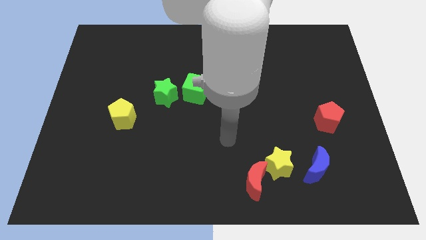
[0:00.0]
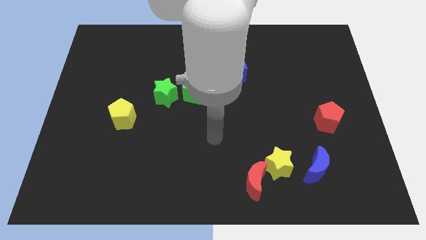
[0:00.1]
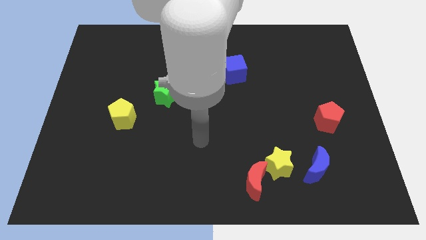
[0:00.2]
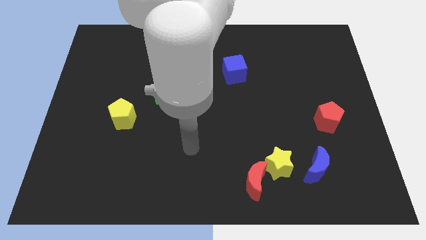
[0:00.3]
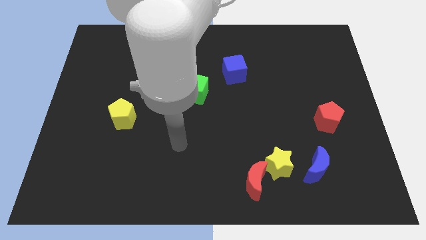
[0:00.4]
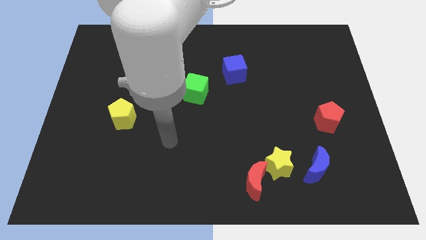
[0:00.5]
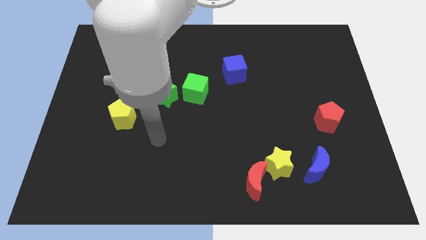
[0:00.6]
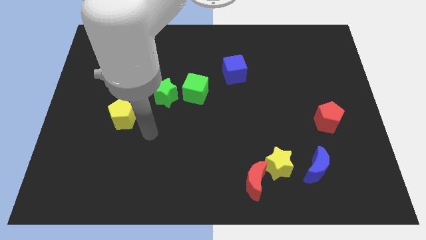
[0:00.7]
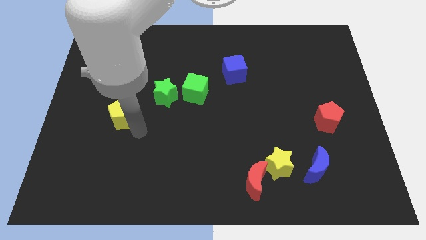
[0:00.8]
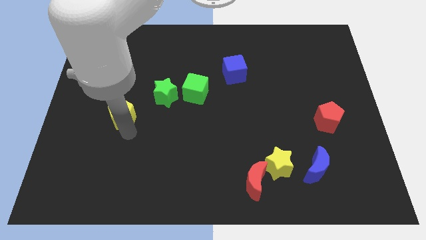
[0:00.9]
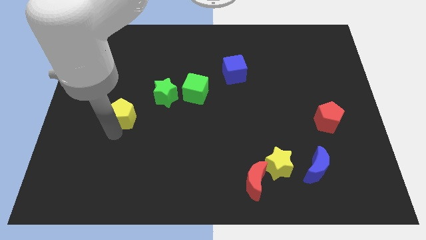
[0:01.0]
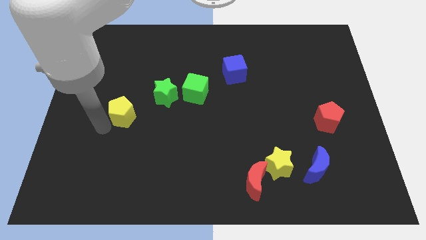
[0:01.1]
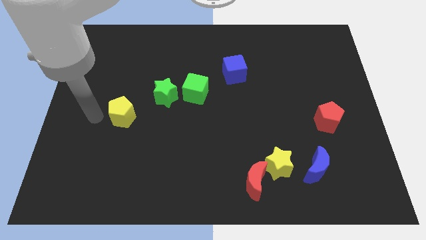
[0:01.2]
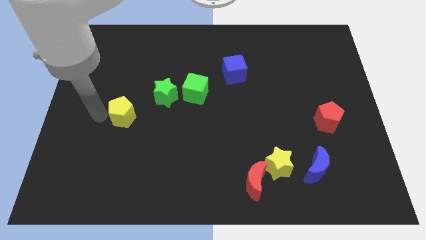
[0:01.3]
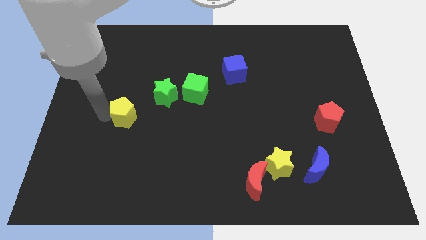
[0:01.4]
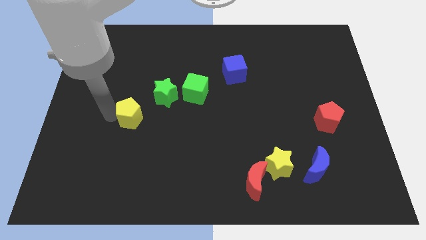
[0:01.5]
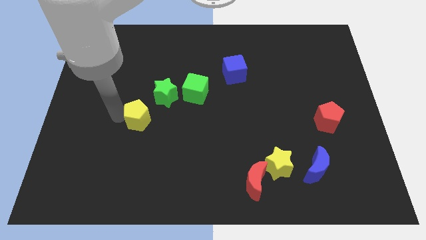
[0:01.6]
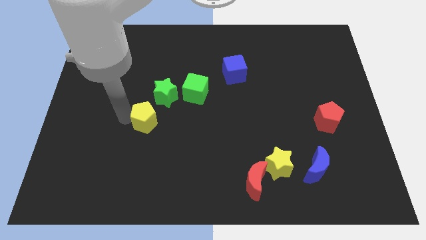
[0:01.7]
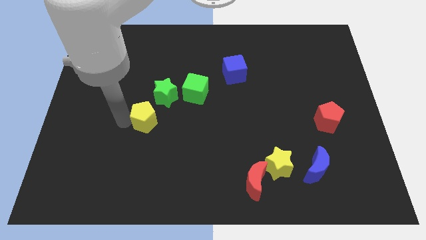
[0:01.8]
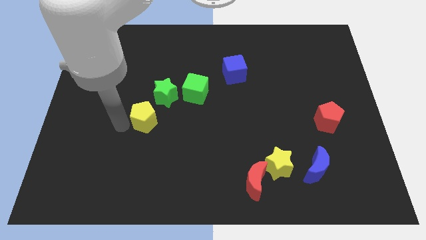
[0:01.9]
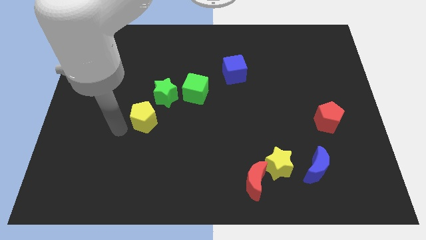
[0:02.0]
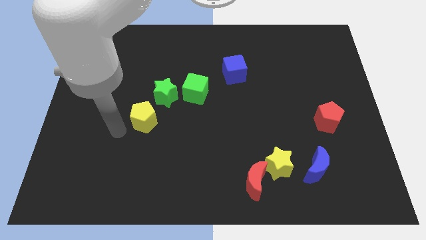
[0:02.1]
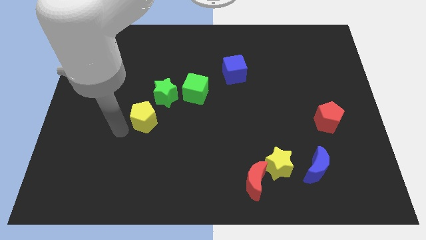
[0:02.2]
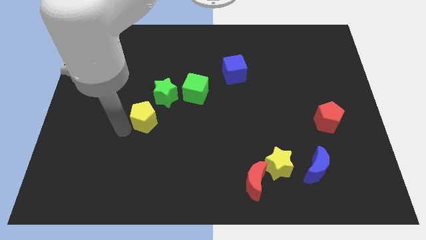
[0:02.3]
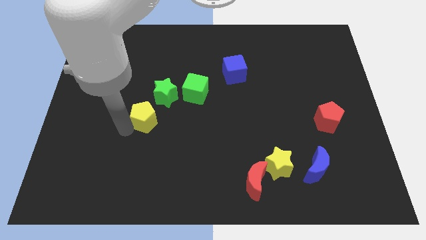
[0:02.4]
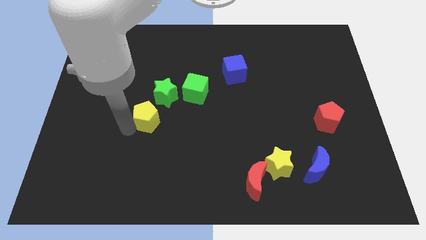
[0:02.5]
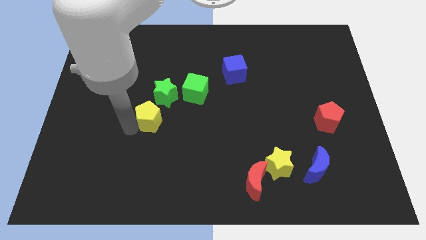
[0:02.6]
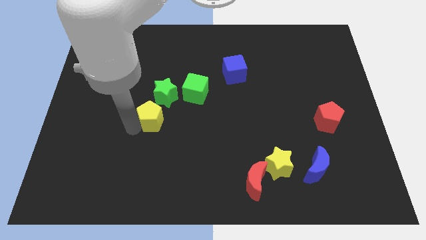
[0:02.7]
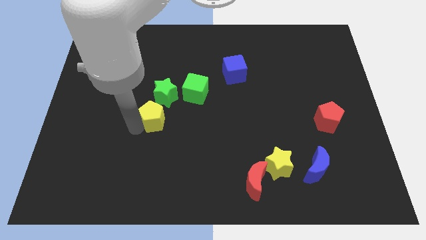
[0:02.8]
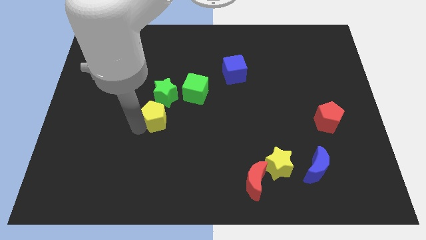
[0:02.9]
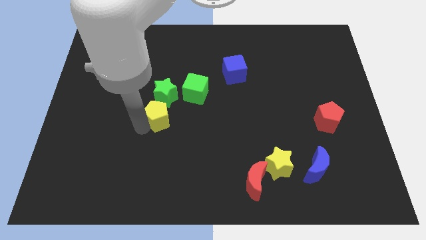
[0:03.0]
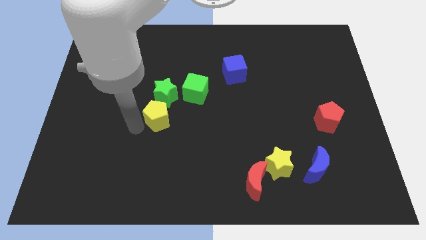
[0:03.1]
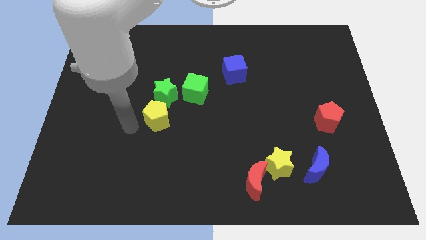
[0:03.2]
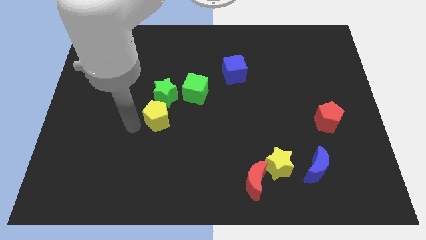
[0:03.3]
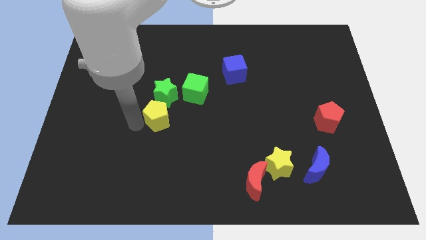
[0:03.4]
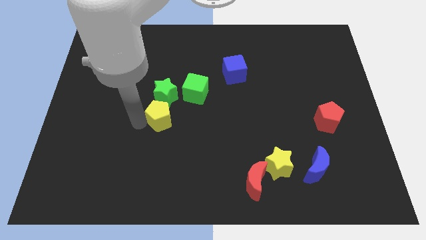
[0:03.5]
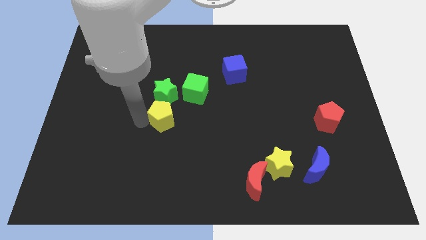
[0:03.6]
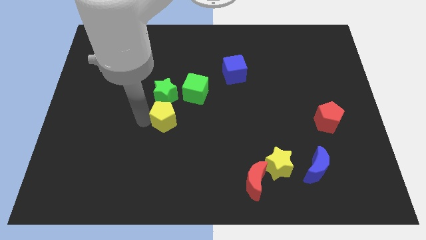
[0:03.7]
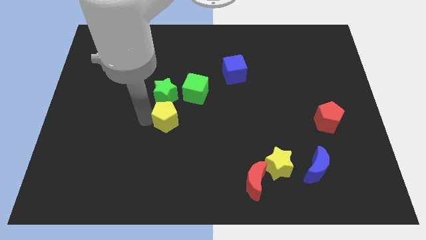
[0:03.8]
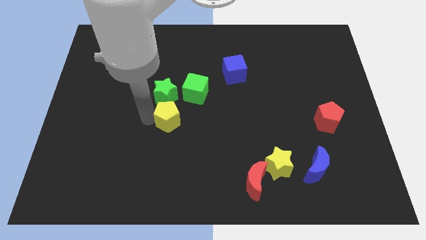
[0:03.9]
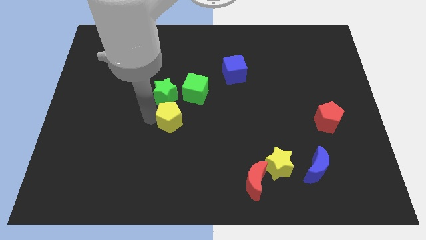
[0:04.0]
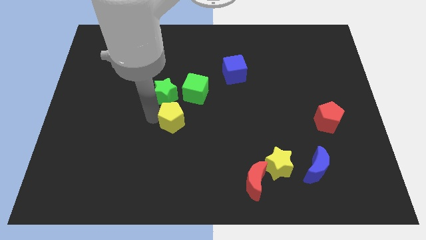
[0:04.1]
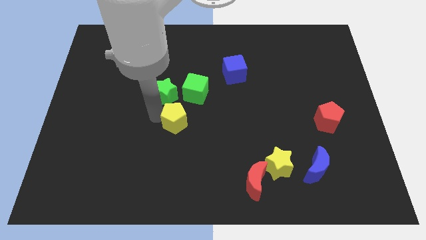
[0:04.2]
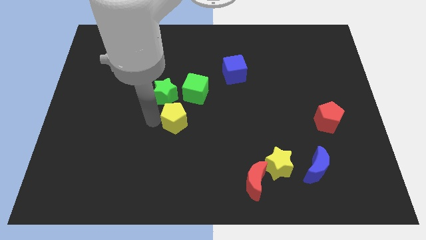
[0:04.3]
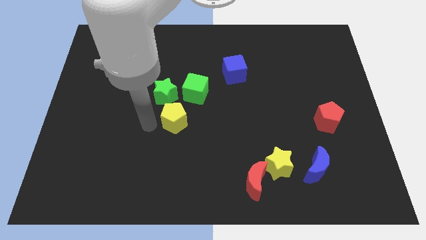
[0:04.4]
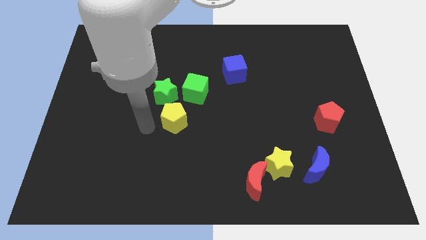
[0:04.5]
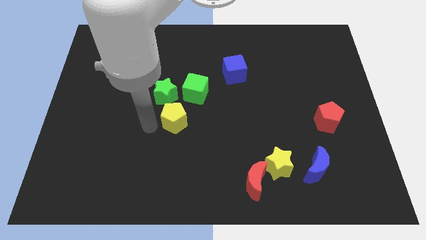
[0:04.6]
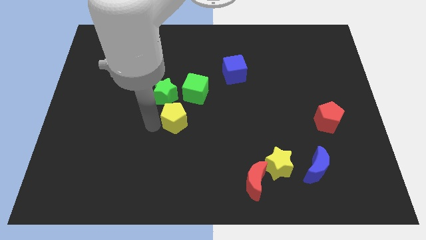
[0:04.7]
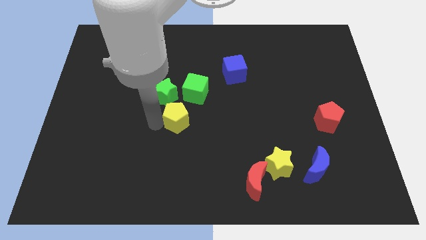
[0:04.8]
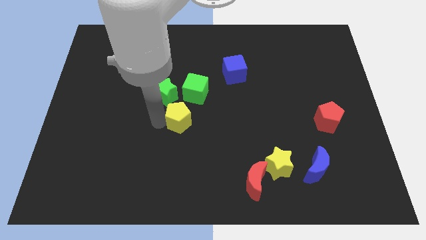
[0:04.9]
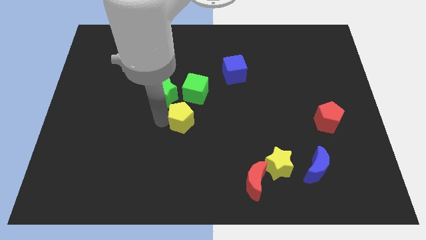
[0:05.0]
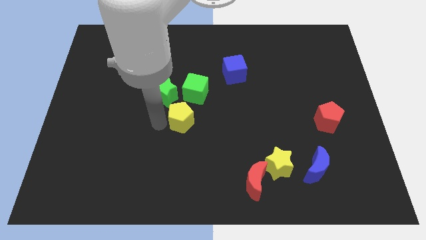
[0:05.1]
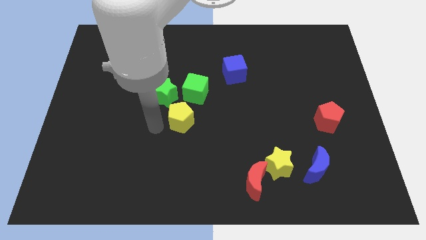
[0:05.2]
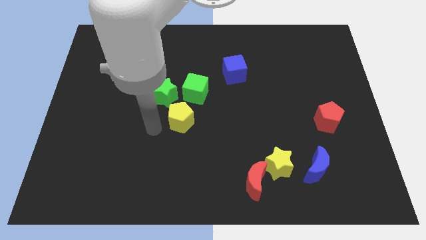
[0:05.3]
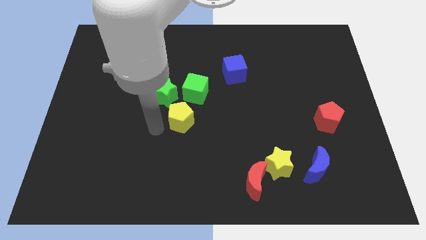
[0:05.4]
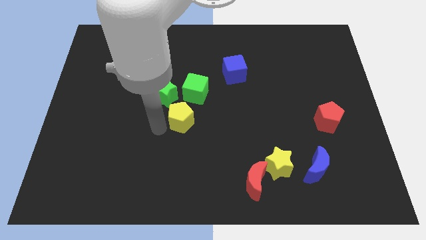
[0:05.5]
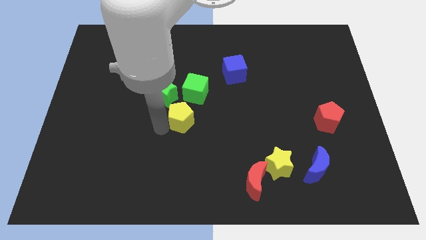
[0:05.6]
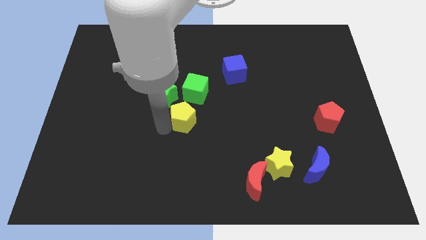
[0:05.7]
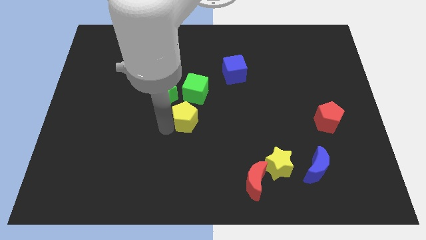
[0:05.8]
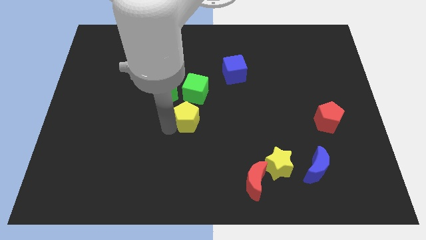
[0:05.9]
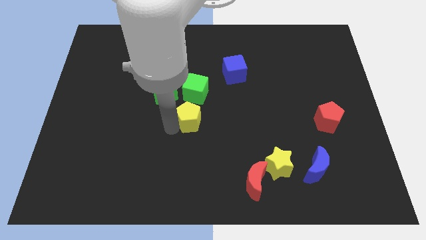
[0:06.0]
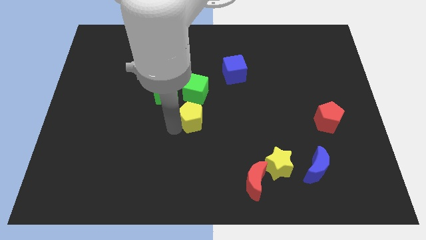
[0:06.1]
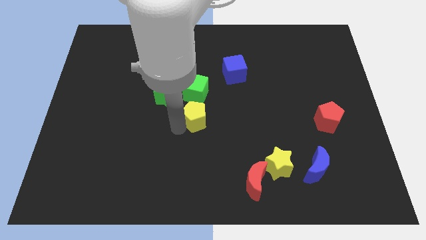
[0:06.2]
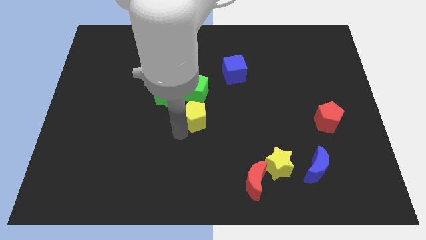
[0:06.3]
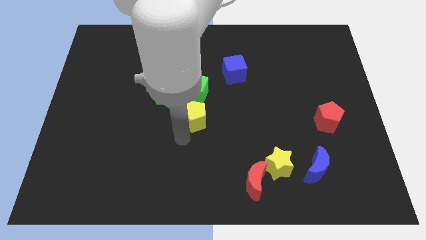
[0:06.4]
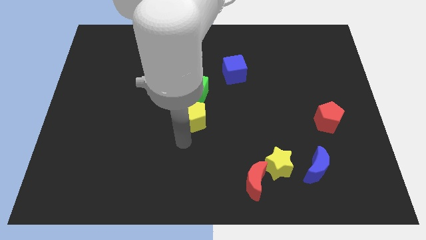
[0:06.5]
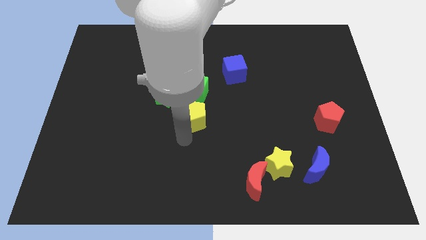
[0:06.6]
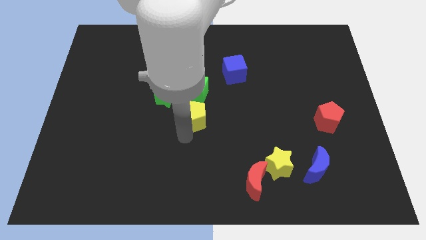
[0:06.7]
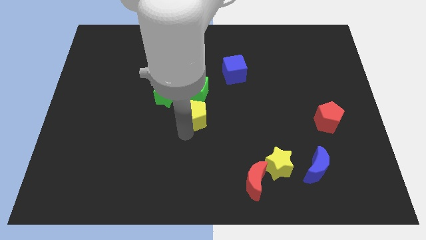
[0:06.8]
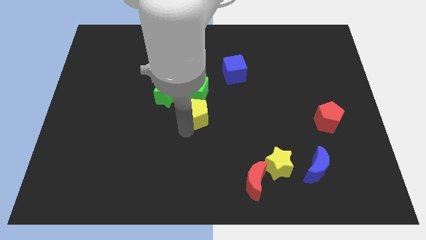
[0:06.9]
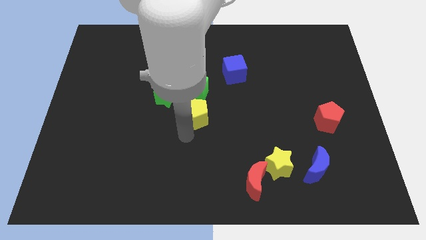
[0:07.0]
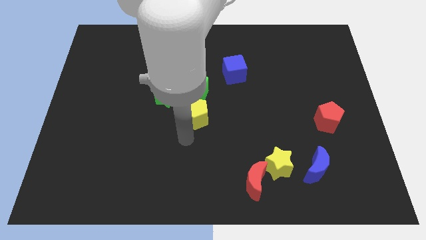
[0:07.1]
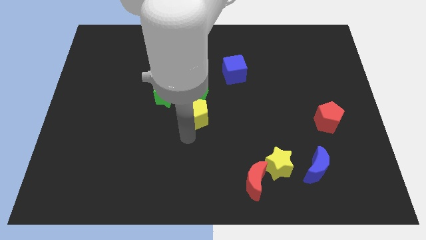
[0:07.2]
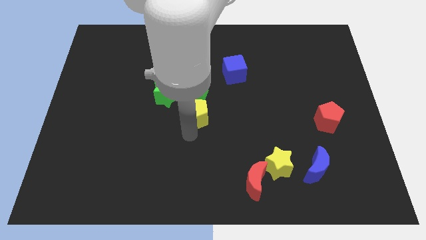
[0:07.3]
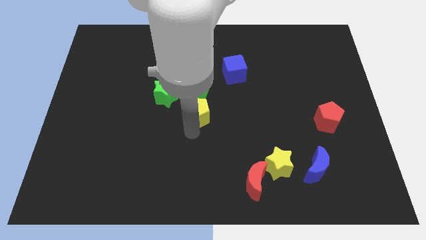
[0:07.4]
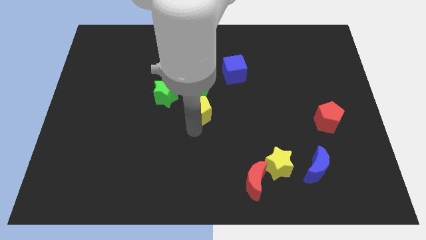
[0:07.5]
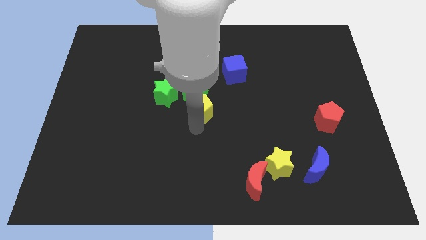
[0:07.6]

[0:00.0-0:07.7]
move the yellow pentagon to the right of the green star
